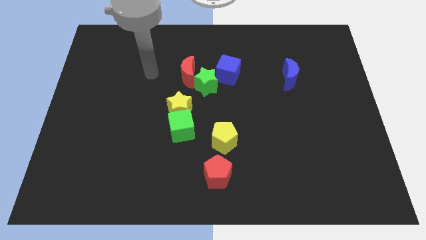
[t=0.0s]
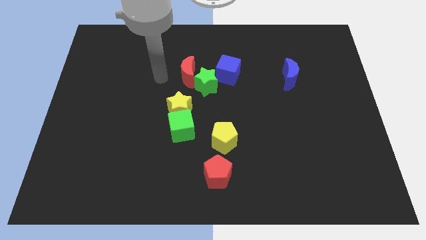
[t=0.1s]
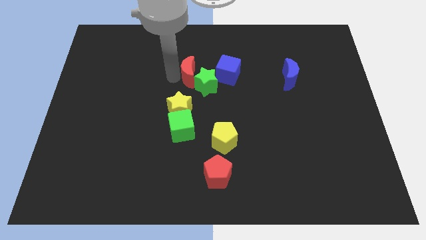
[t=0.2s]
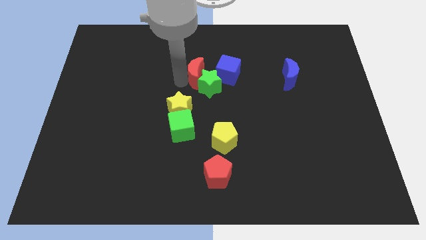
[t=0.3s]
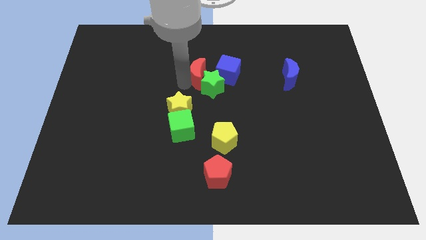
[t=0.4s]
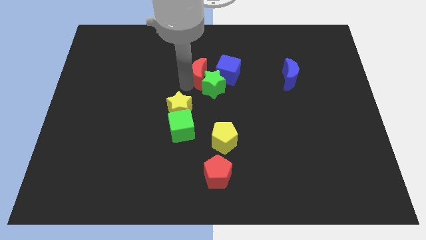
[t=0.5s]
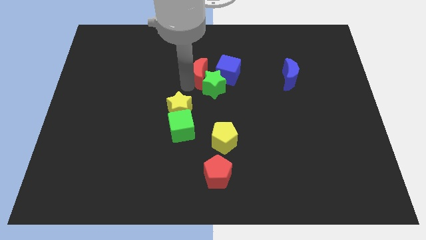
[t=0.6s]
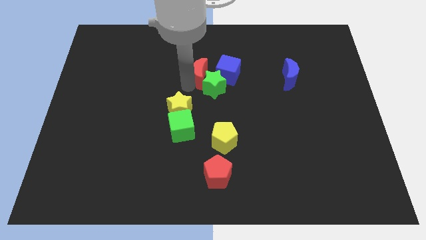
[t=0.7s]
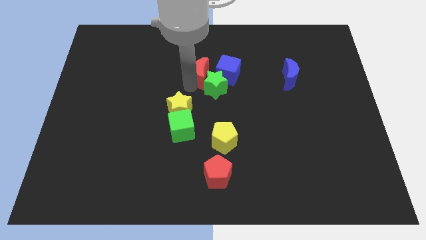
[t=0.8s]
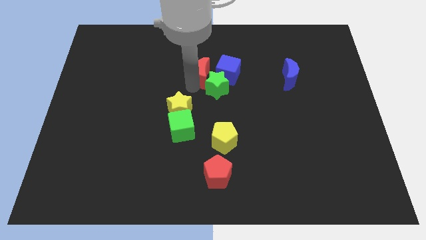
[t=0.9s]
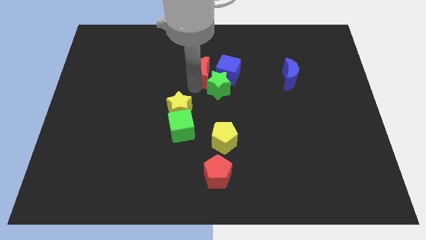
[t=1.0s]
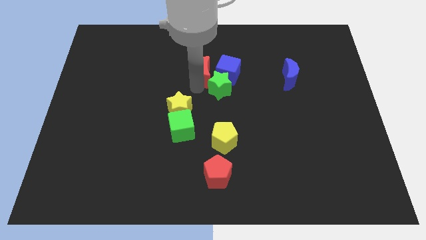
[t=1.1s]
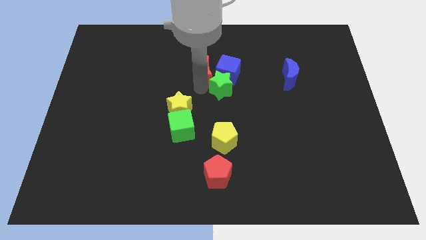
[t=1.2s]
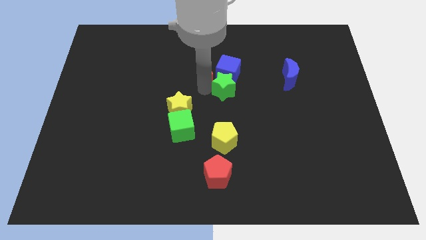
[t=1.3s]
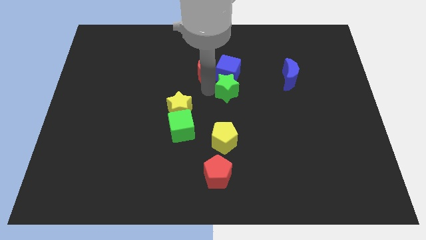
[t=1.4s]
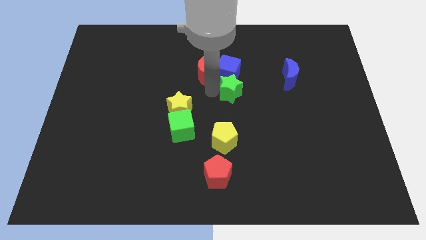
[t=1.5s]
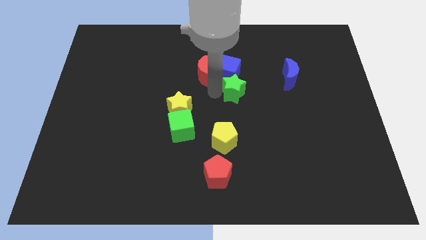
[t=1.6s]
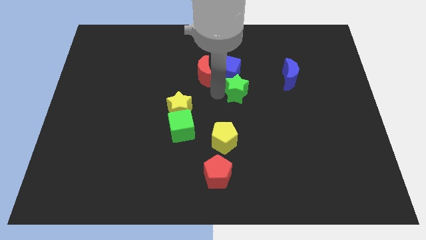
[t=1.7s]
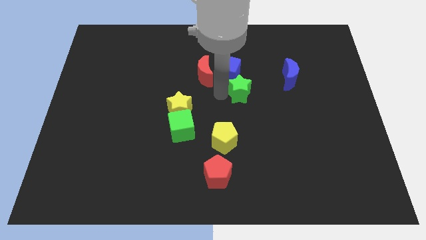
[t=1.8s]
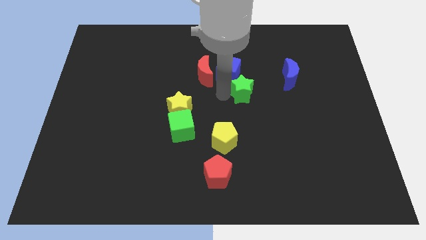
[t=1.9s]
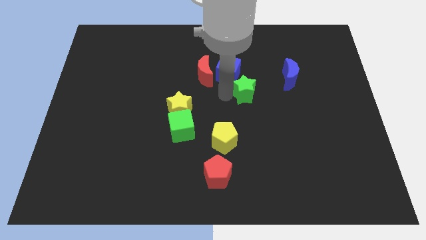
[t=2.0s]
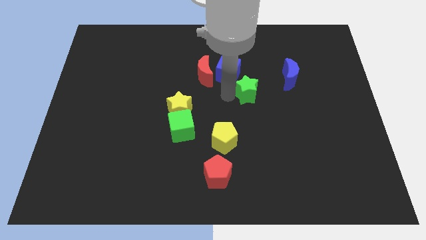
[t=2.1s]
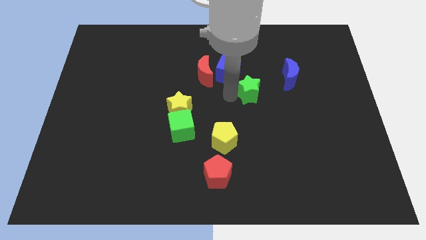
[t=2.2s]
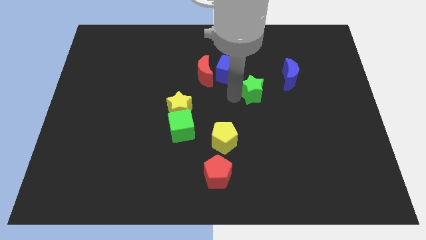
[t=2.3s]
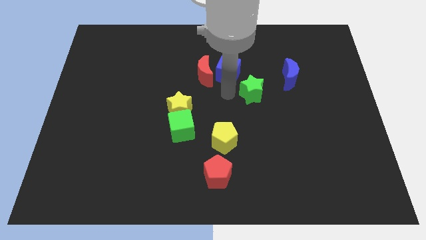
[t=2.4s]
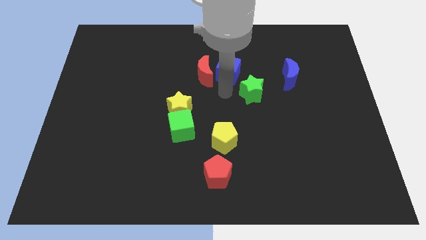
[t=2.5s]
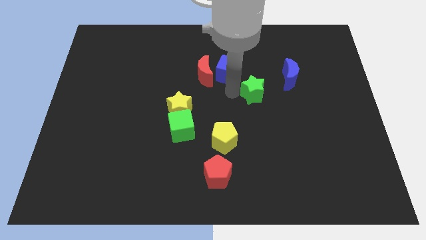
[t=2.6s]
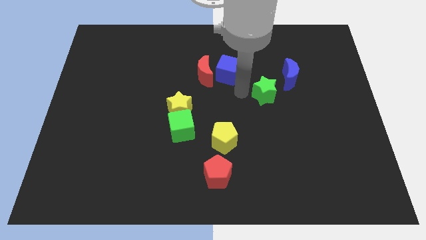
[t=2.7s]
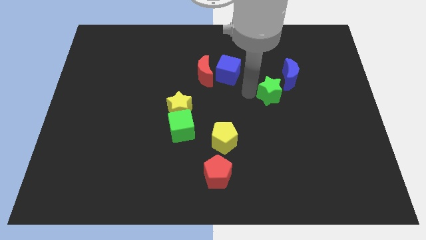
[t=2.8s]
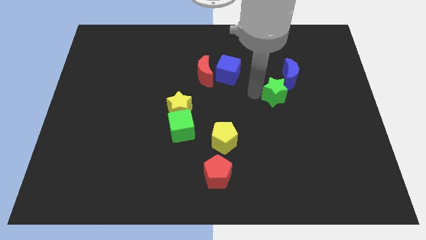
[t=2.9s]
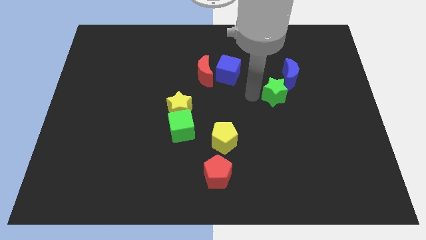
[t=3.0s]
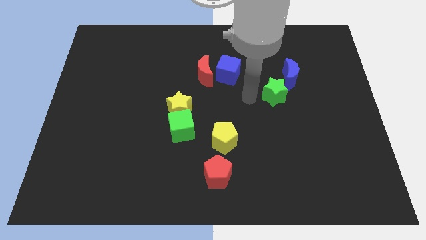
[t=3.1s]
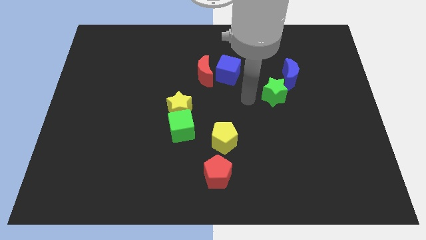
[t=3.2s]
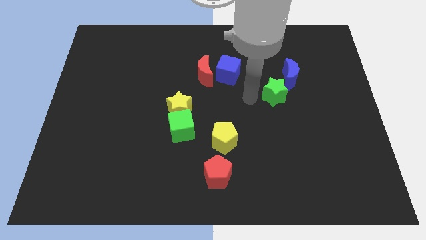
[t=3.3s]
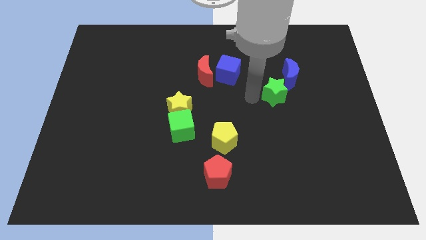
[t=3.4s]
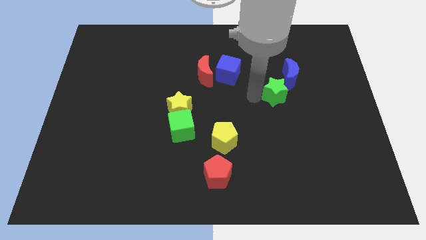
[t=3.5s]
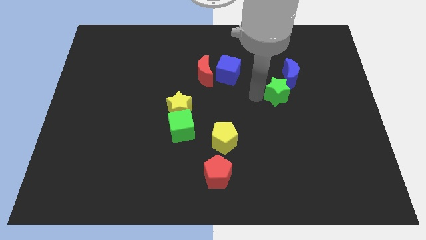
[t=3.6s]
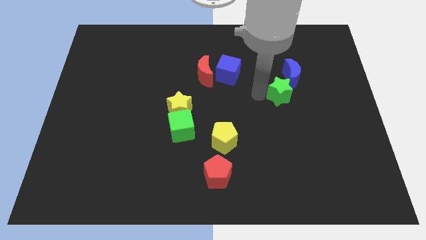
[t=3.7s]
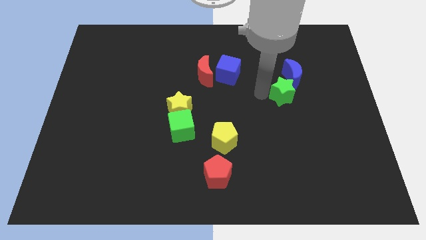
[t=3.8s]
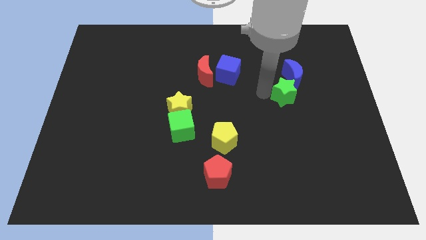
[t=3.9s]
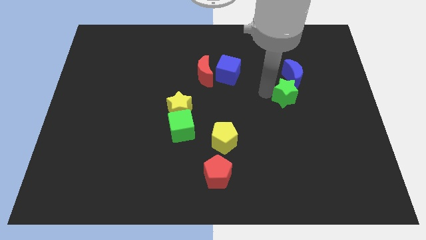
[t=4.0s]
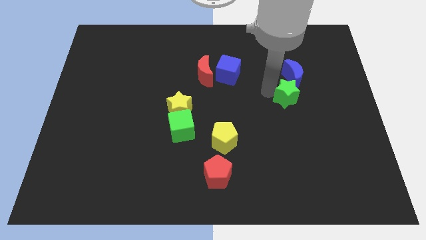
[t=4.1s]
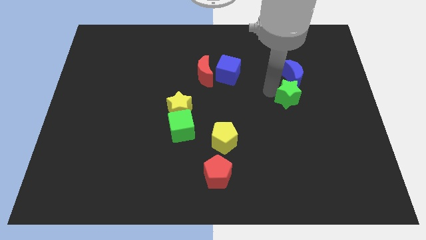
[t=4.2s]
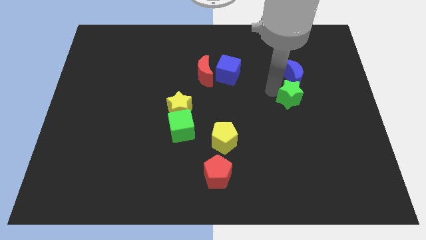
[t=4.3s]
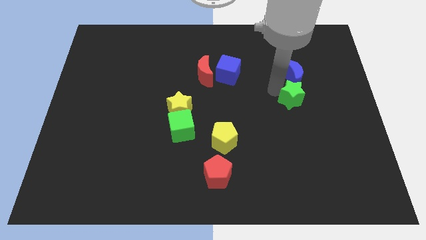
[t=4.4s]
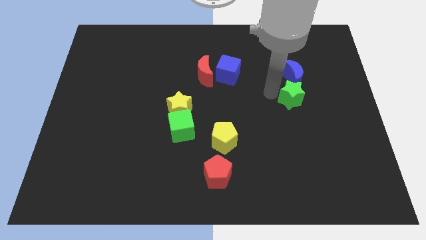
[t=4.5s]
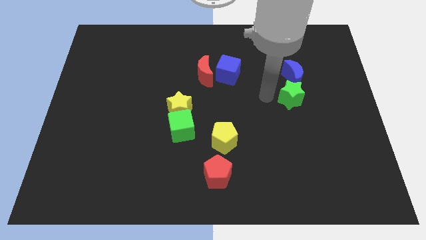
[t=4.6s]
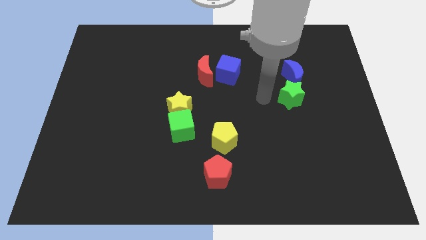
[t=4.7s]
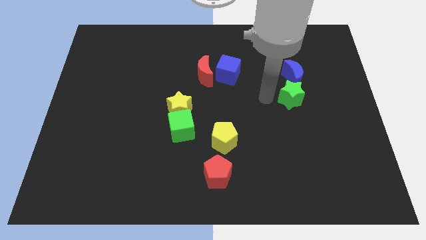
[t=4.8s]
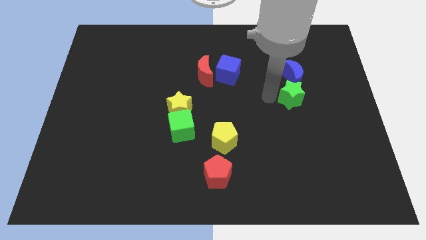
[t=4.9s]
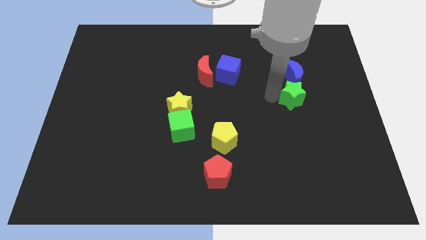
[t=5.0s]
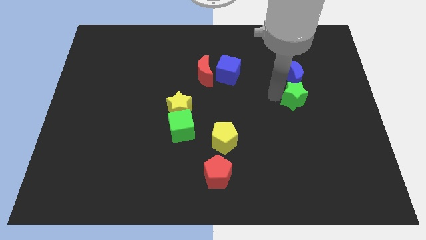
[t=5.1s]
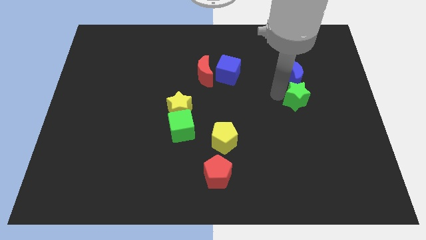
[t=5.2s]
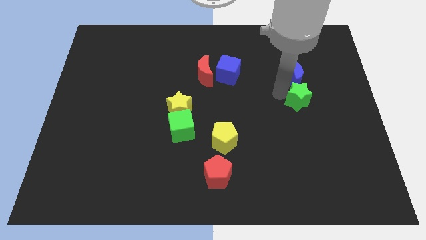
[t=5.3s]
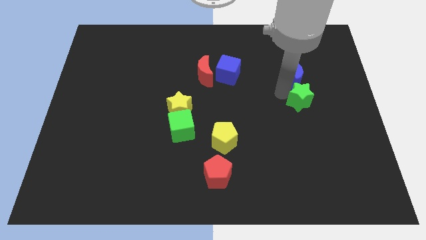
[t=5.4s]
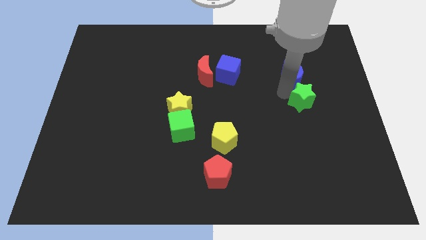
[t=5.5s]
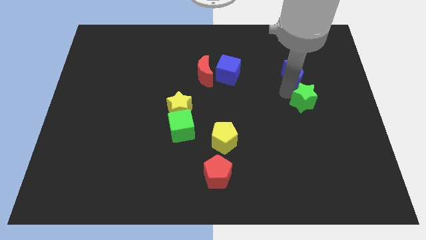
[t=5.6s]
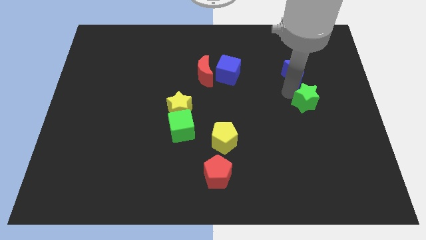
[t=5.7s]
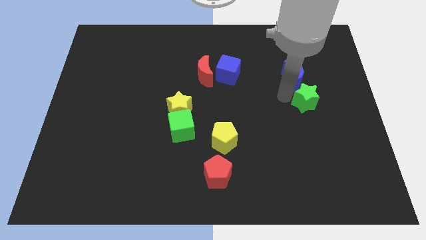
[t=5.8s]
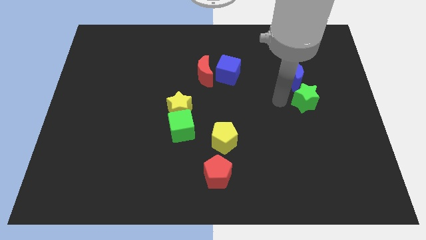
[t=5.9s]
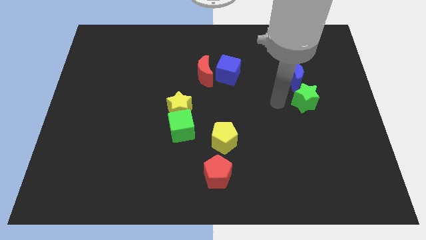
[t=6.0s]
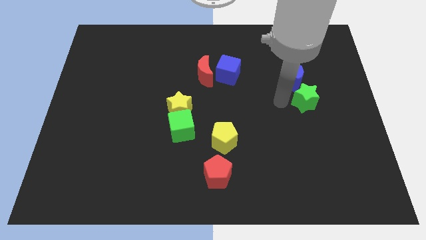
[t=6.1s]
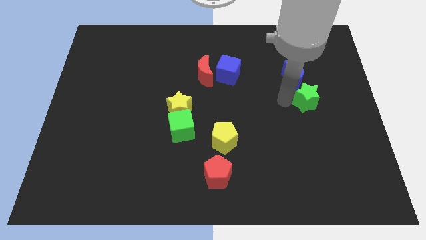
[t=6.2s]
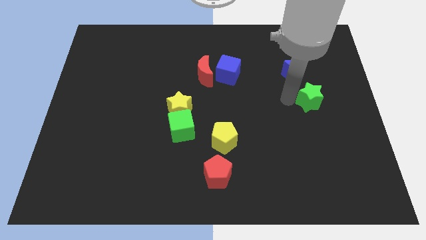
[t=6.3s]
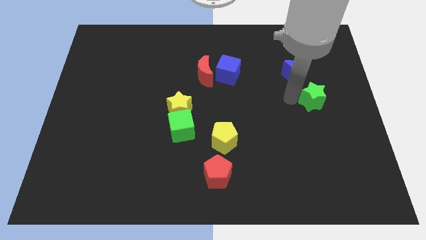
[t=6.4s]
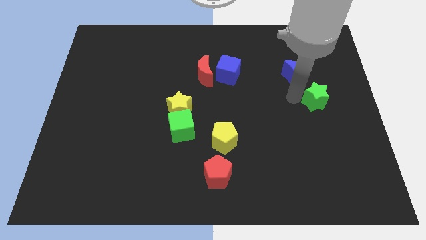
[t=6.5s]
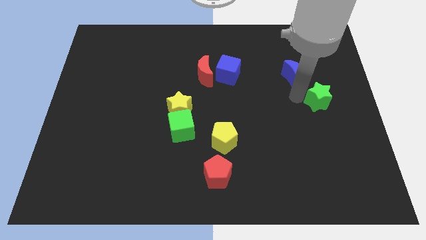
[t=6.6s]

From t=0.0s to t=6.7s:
move the green star to the right side

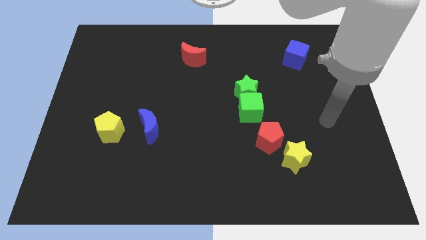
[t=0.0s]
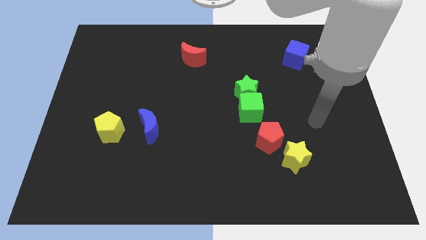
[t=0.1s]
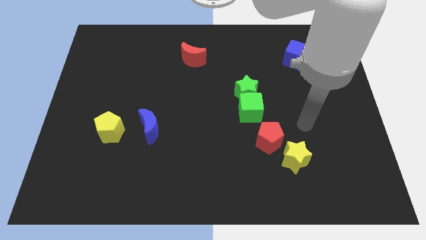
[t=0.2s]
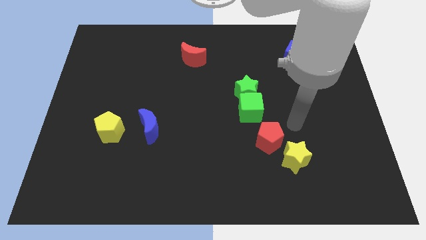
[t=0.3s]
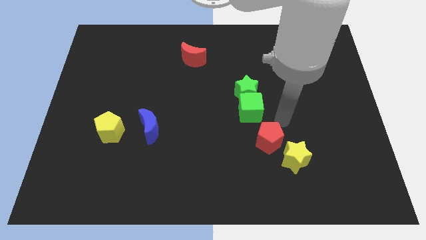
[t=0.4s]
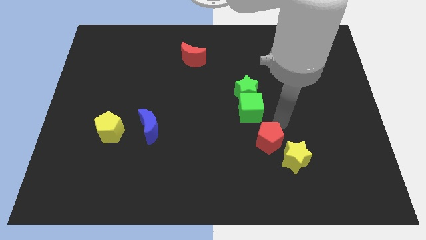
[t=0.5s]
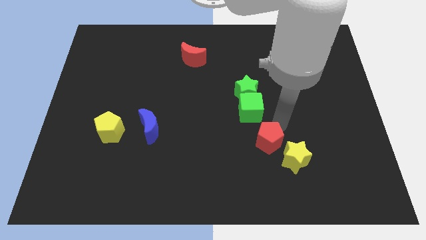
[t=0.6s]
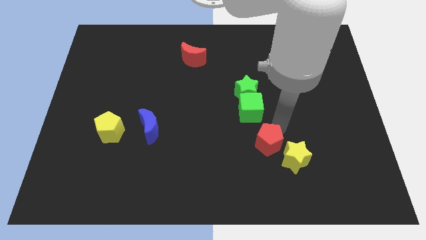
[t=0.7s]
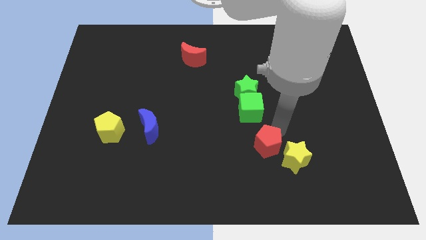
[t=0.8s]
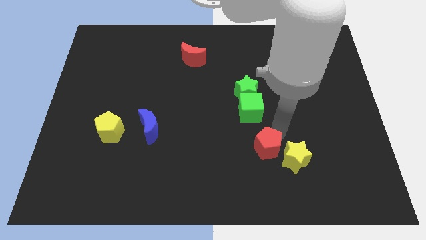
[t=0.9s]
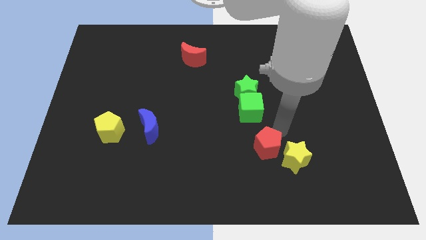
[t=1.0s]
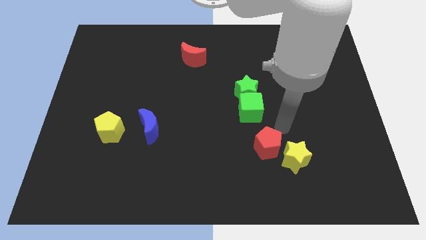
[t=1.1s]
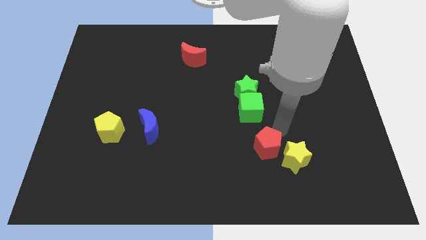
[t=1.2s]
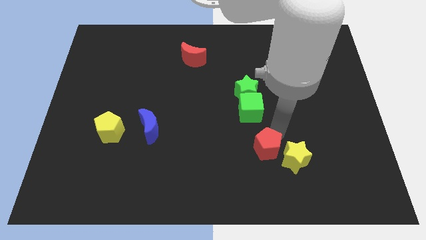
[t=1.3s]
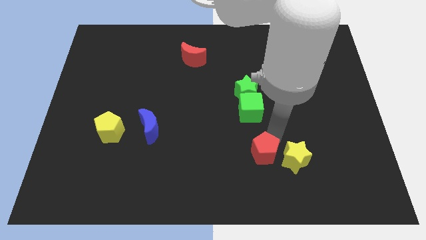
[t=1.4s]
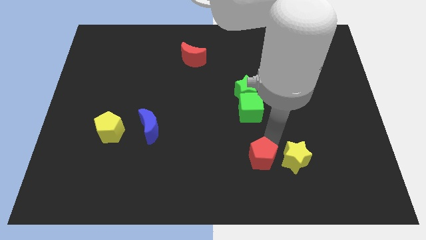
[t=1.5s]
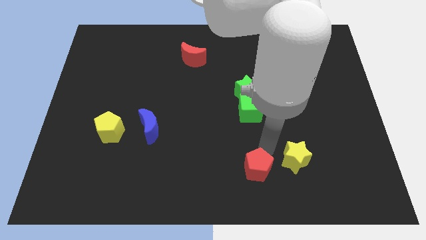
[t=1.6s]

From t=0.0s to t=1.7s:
slide the red pentagon to the bottom side
